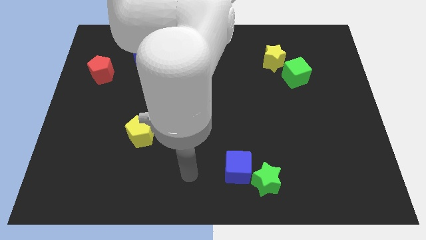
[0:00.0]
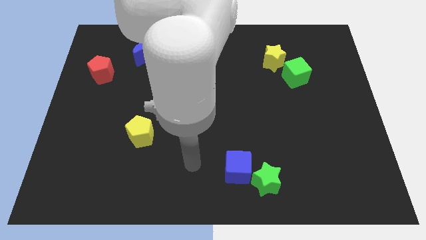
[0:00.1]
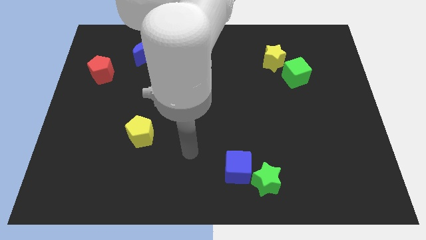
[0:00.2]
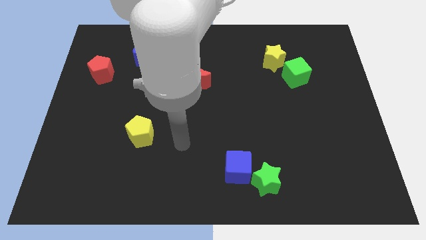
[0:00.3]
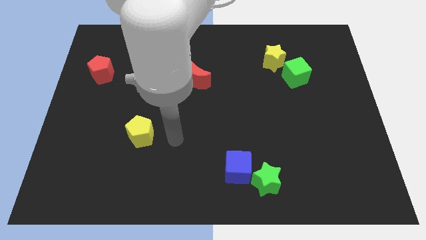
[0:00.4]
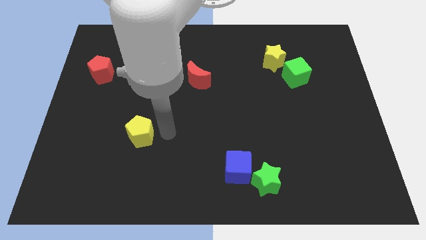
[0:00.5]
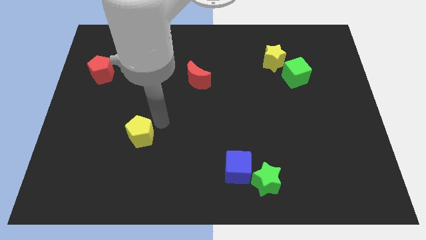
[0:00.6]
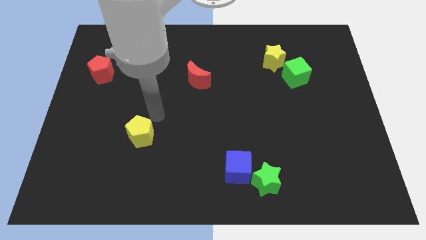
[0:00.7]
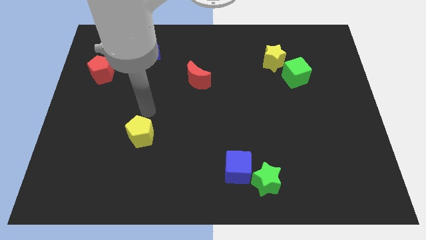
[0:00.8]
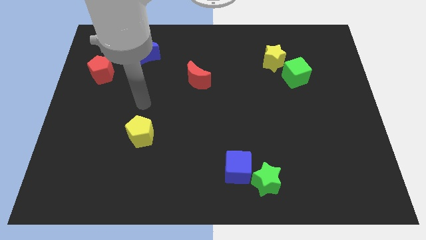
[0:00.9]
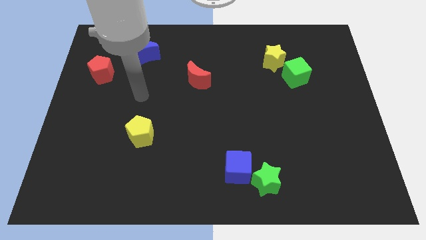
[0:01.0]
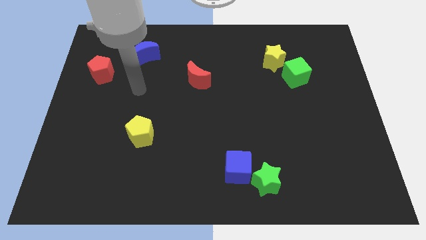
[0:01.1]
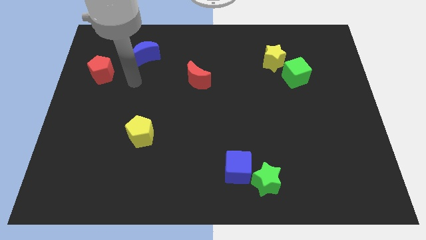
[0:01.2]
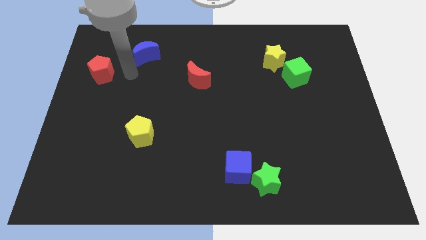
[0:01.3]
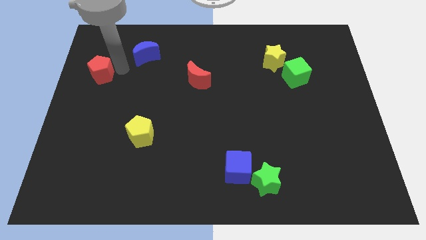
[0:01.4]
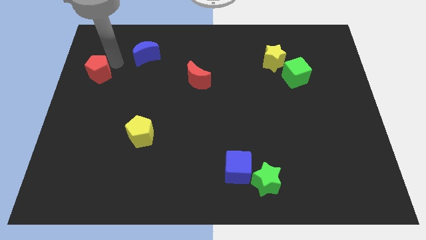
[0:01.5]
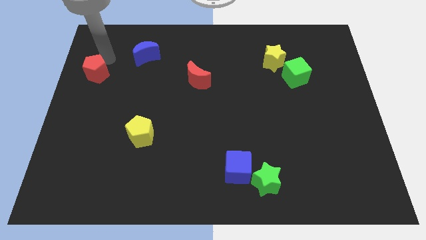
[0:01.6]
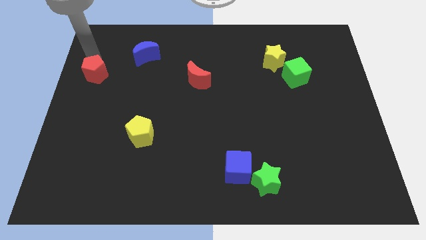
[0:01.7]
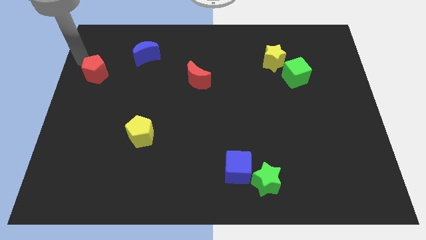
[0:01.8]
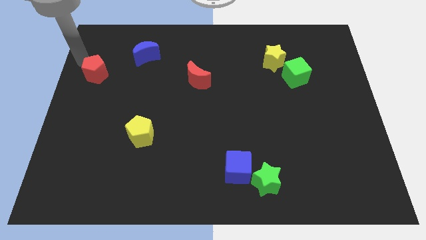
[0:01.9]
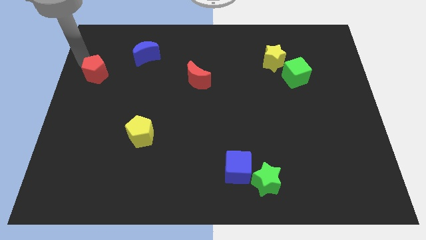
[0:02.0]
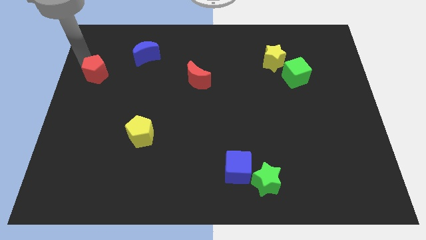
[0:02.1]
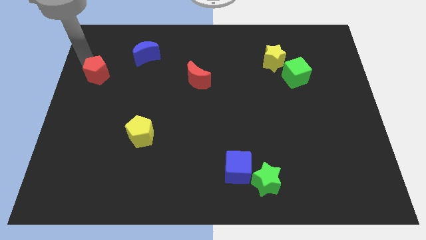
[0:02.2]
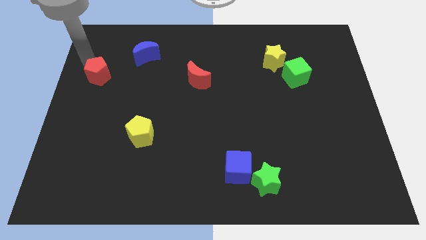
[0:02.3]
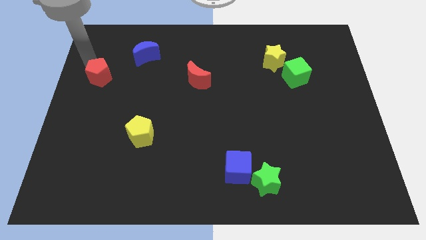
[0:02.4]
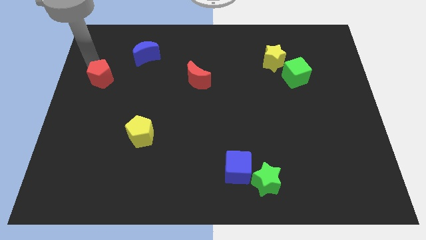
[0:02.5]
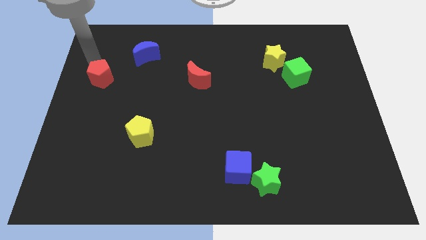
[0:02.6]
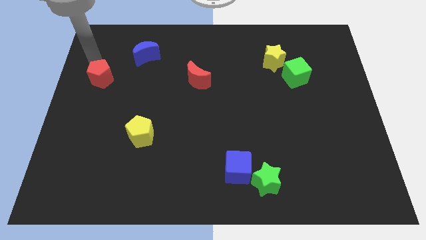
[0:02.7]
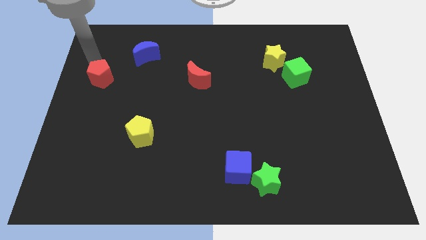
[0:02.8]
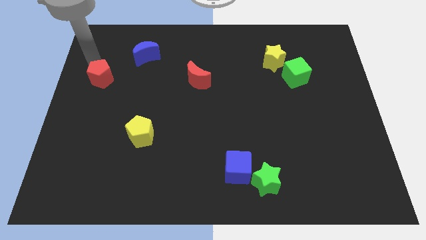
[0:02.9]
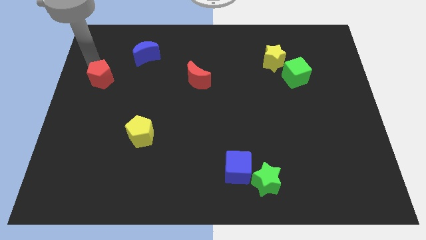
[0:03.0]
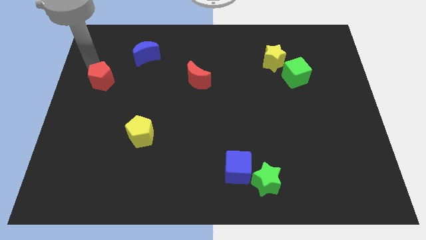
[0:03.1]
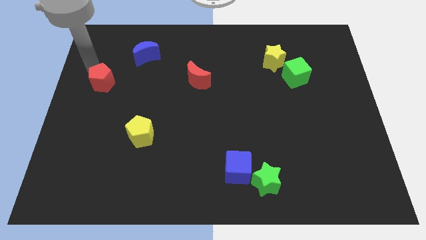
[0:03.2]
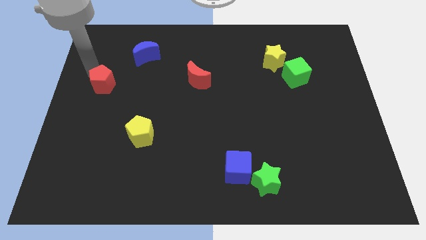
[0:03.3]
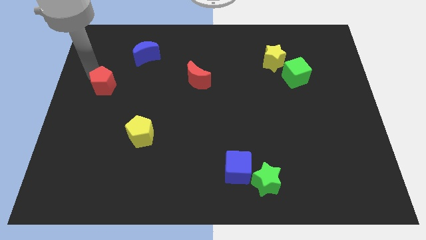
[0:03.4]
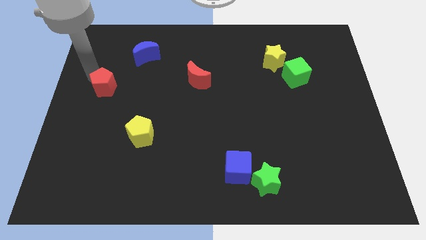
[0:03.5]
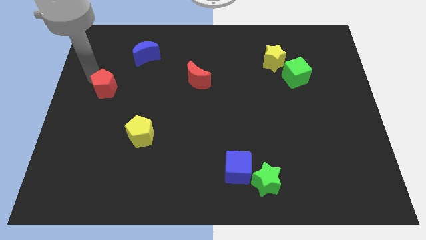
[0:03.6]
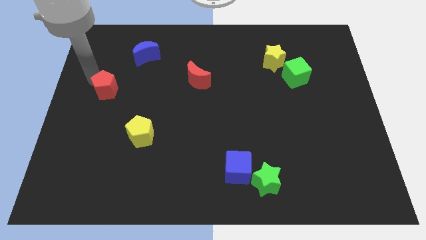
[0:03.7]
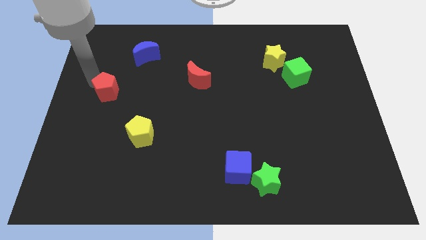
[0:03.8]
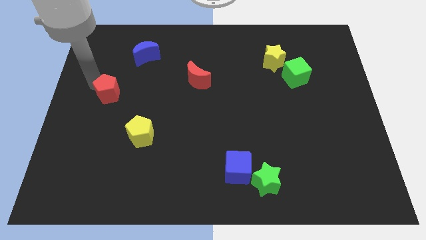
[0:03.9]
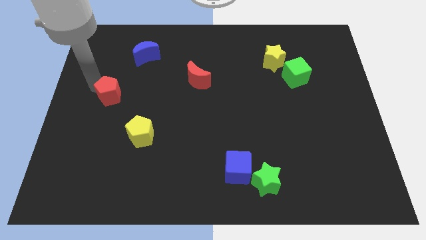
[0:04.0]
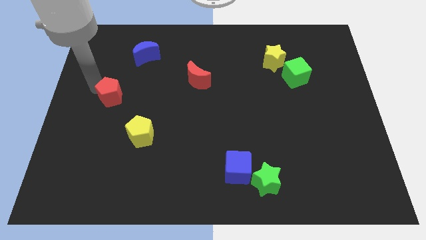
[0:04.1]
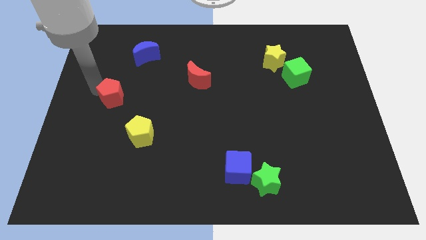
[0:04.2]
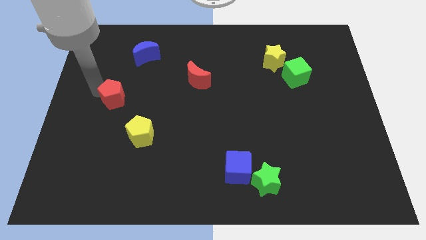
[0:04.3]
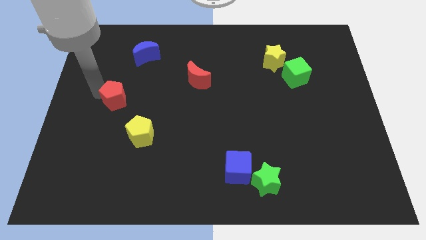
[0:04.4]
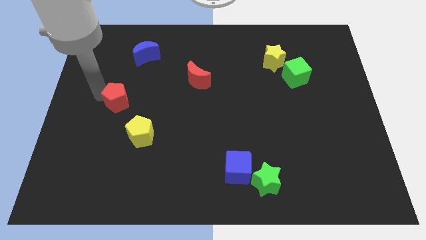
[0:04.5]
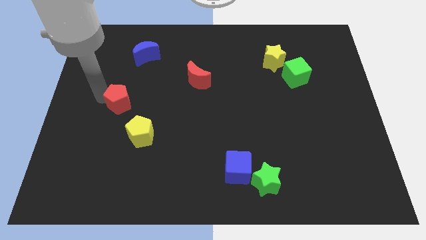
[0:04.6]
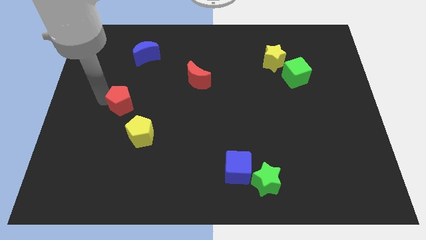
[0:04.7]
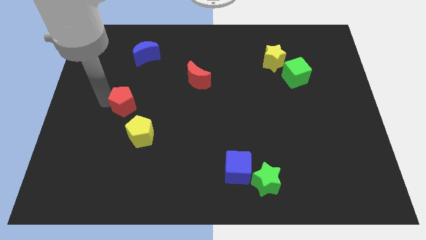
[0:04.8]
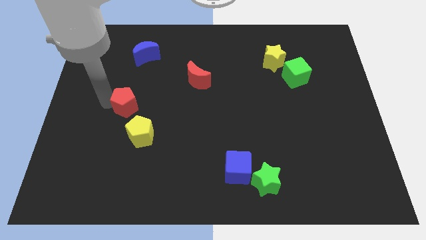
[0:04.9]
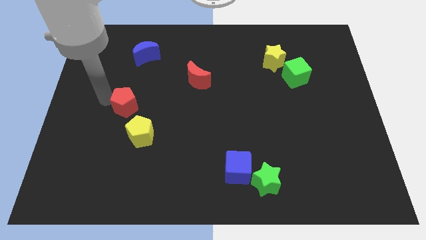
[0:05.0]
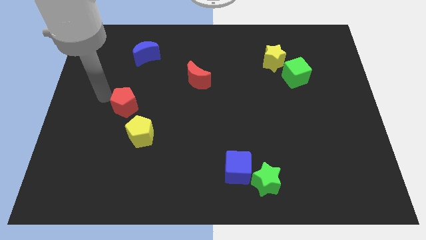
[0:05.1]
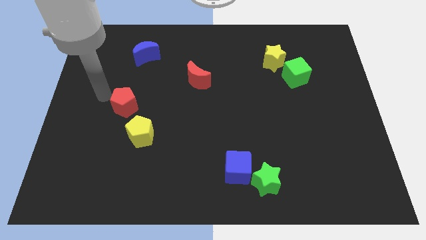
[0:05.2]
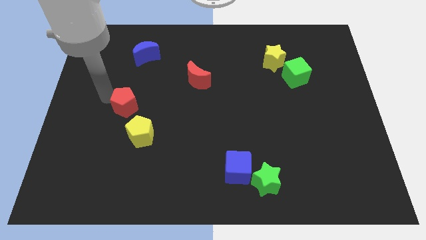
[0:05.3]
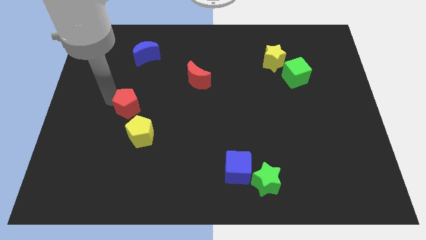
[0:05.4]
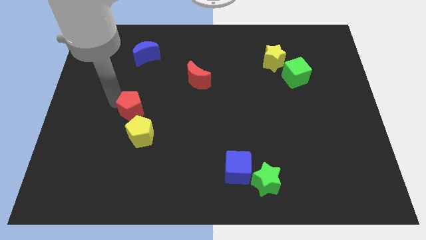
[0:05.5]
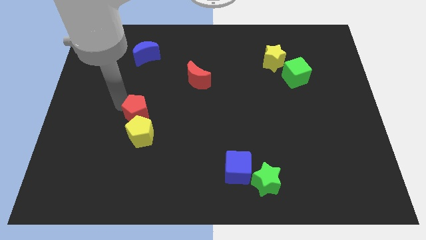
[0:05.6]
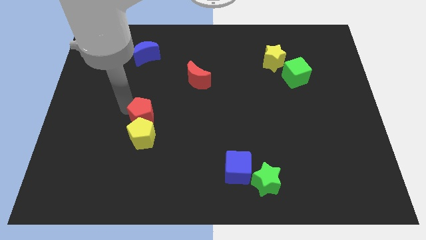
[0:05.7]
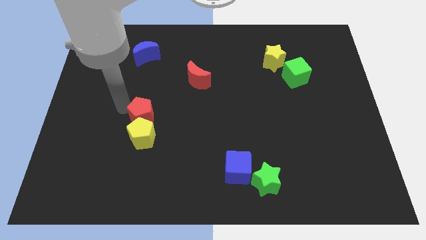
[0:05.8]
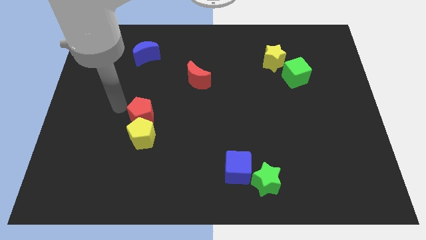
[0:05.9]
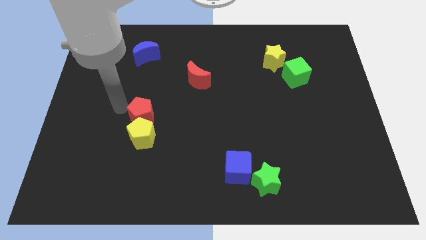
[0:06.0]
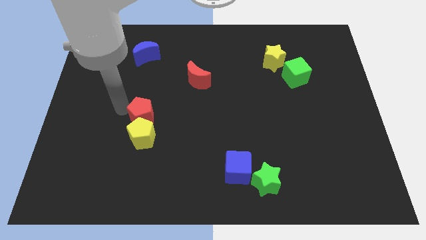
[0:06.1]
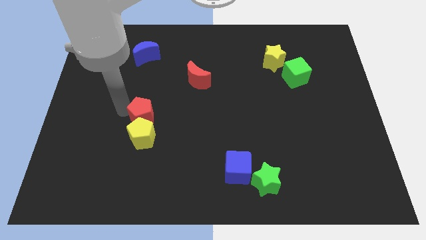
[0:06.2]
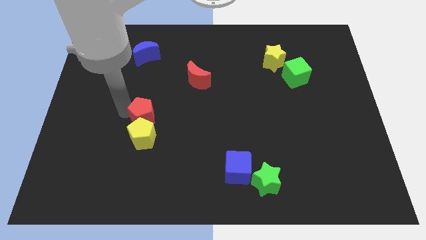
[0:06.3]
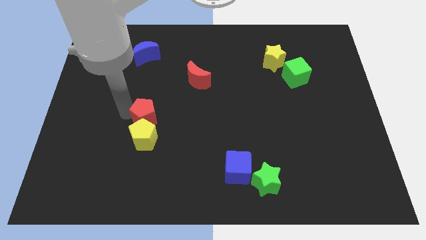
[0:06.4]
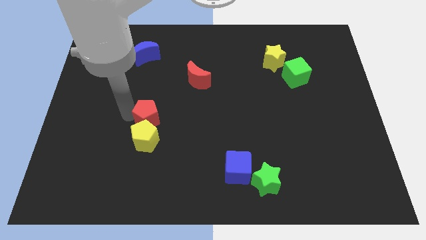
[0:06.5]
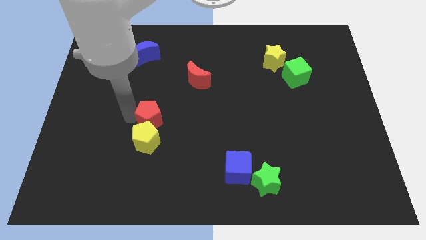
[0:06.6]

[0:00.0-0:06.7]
slide the red pentagon diagonally down and right

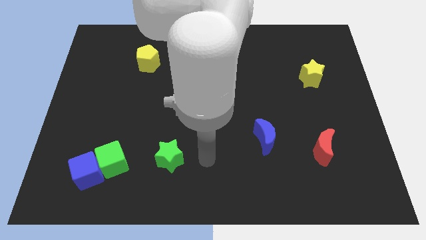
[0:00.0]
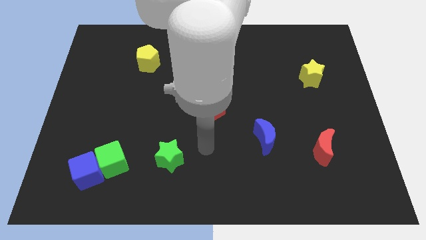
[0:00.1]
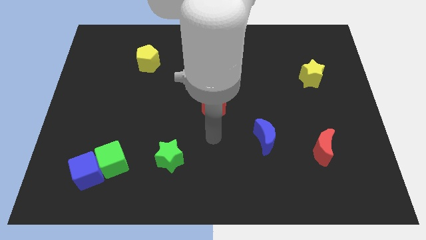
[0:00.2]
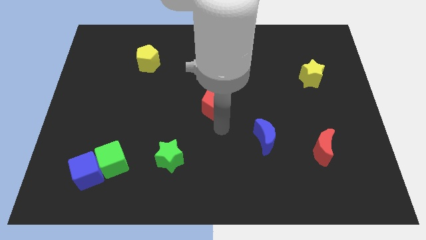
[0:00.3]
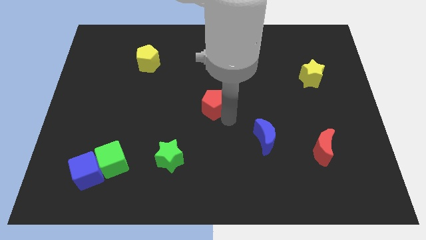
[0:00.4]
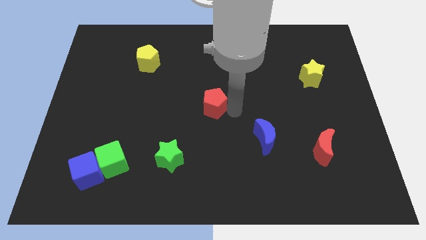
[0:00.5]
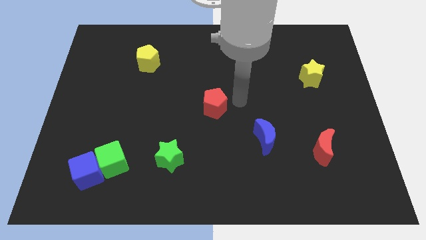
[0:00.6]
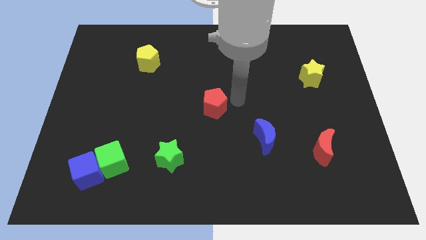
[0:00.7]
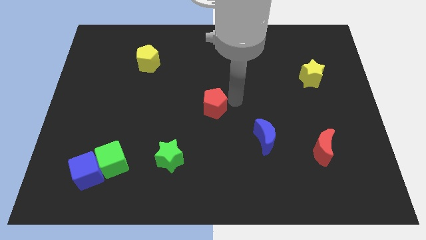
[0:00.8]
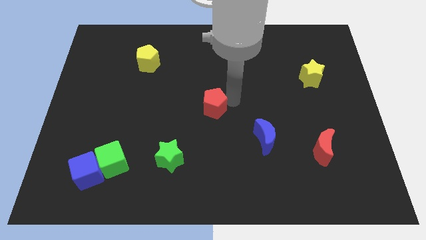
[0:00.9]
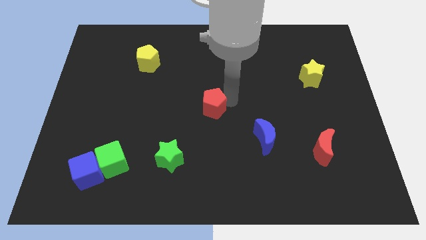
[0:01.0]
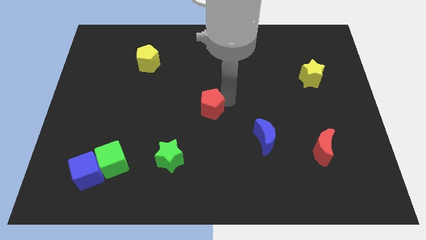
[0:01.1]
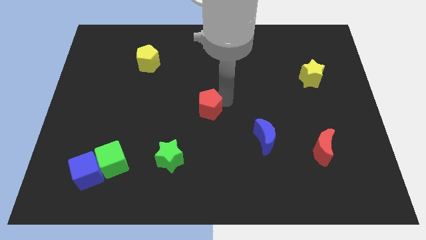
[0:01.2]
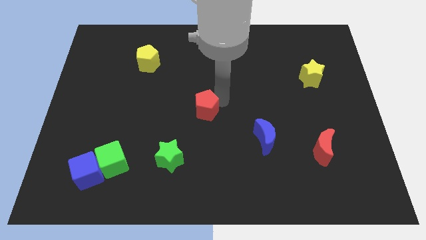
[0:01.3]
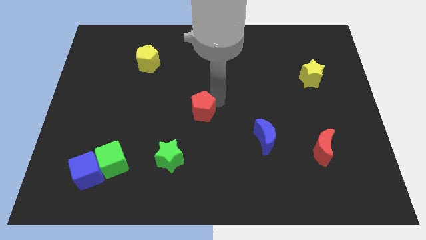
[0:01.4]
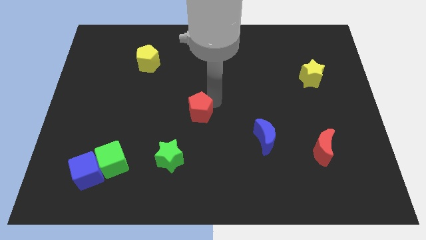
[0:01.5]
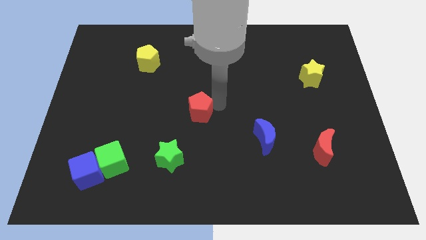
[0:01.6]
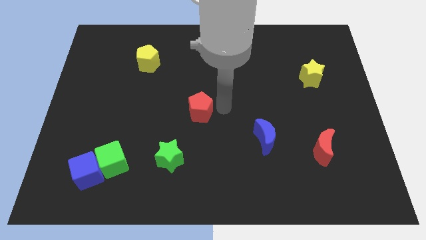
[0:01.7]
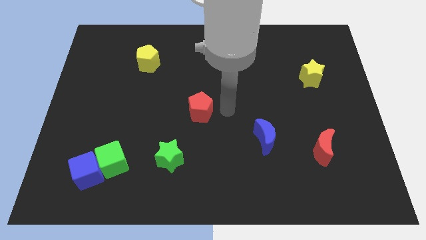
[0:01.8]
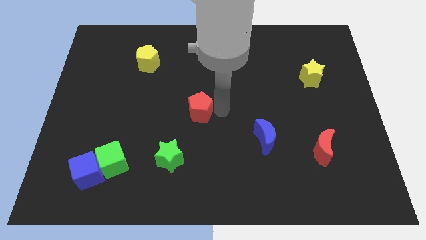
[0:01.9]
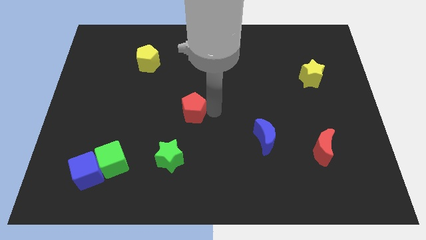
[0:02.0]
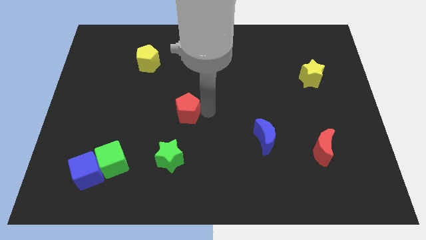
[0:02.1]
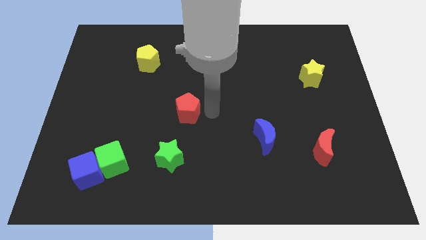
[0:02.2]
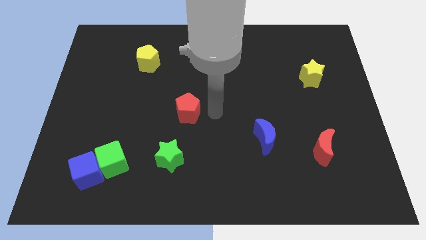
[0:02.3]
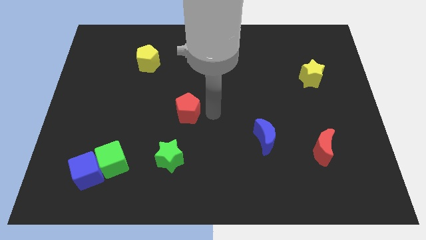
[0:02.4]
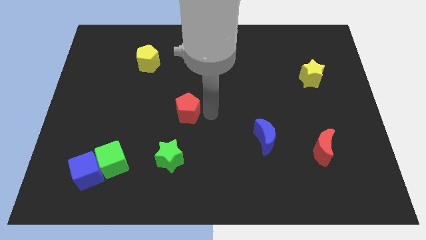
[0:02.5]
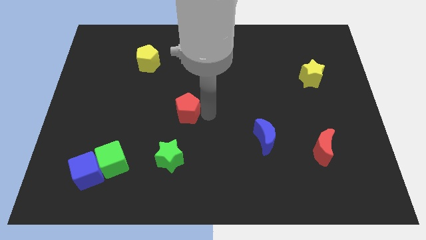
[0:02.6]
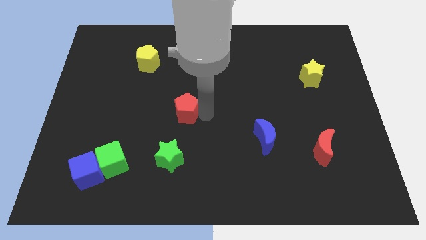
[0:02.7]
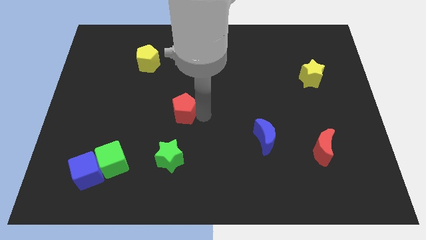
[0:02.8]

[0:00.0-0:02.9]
slide the red pentagon to the left slightly
